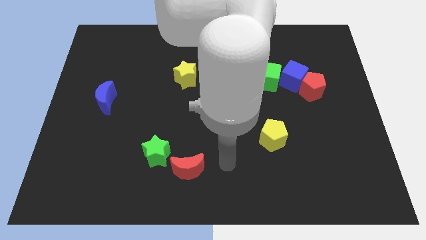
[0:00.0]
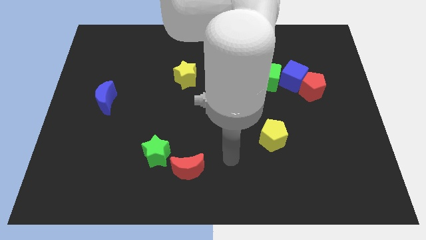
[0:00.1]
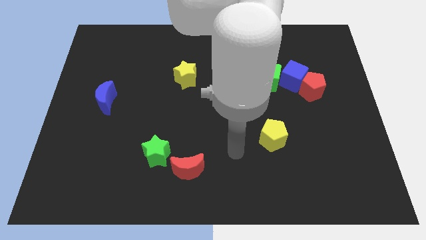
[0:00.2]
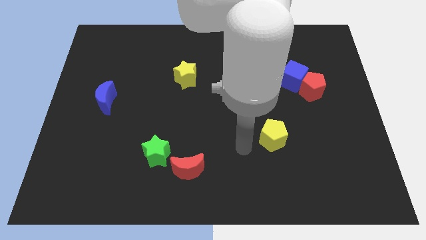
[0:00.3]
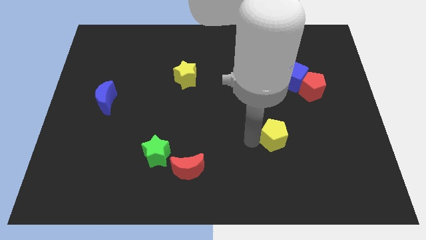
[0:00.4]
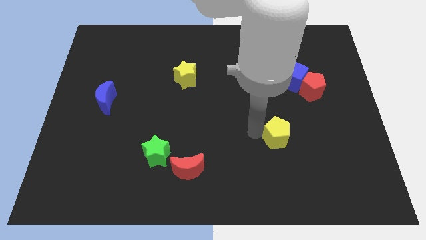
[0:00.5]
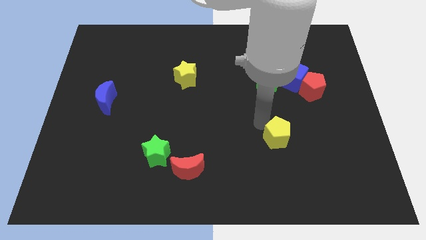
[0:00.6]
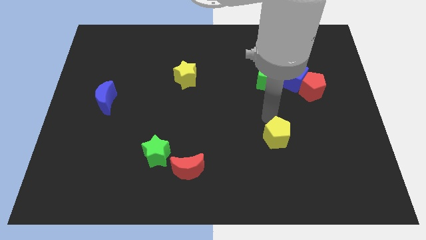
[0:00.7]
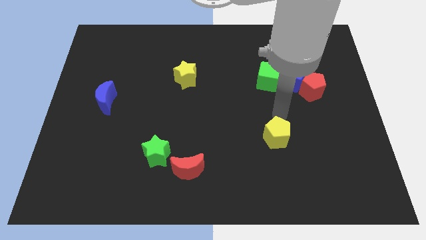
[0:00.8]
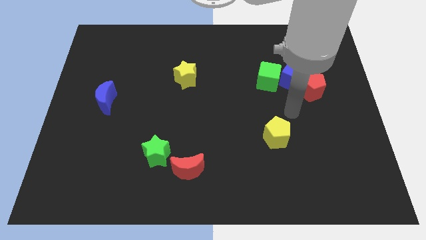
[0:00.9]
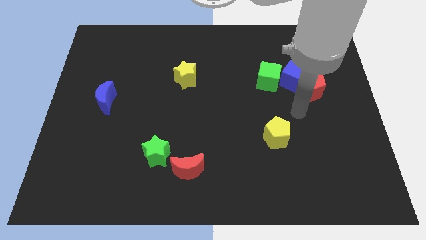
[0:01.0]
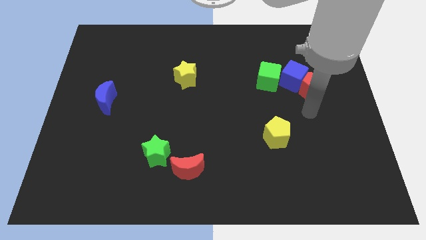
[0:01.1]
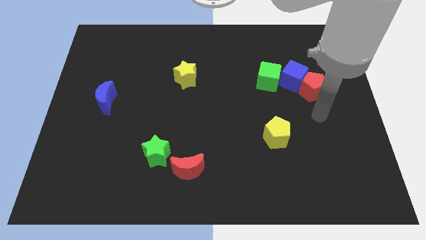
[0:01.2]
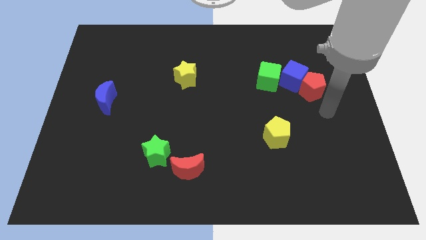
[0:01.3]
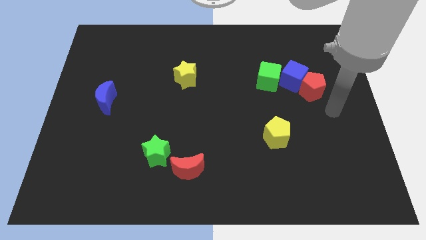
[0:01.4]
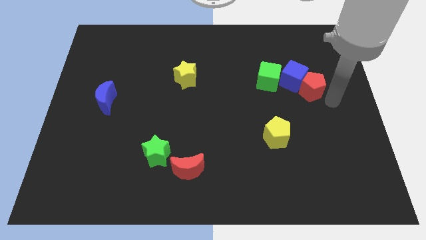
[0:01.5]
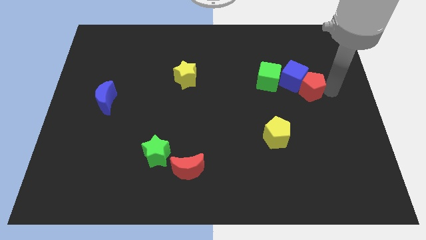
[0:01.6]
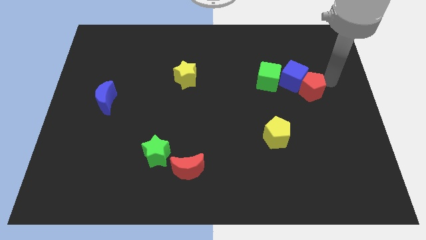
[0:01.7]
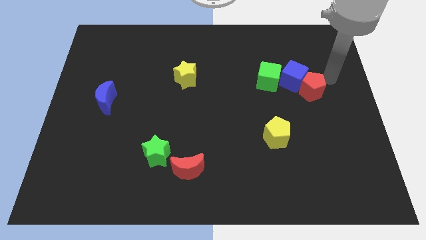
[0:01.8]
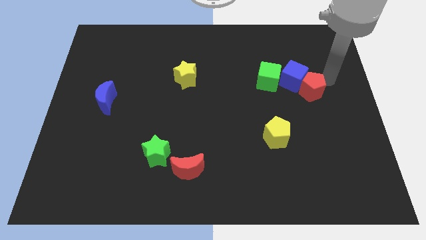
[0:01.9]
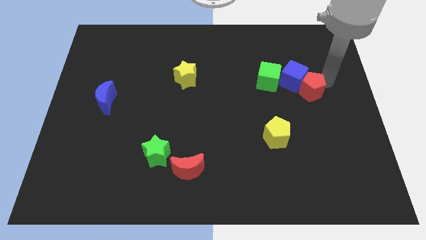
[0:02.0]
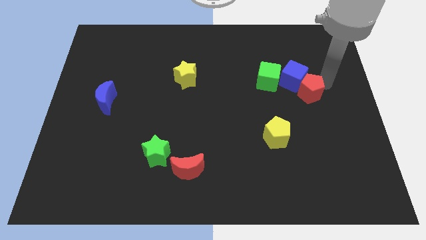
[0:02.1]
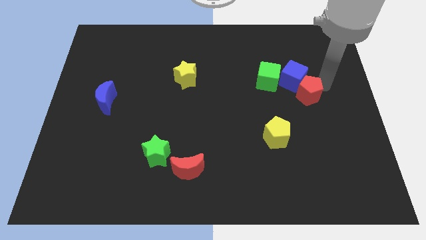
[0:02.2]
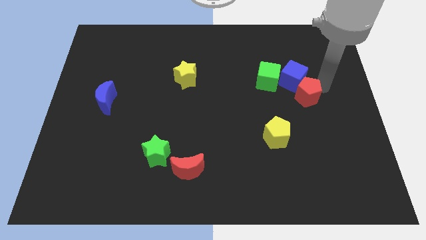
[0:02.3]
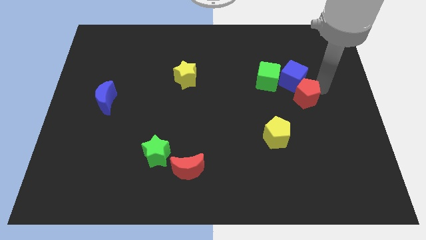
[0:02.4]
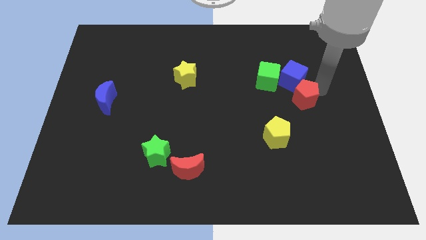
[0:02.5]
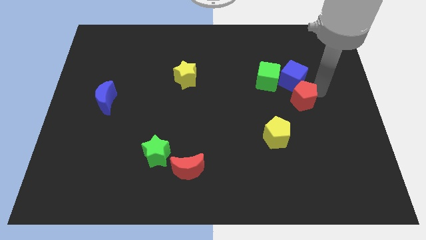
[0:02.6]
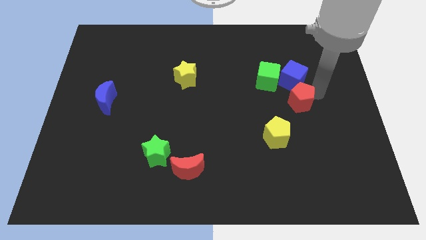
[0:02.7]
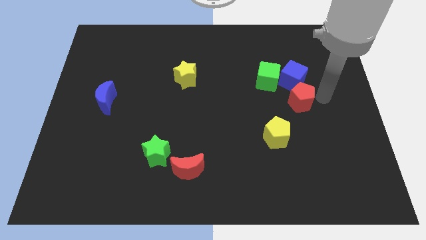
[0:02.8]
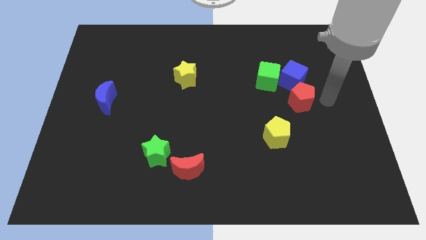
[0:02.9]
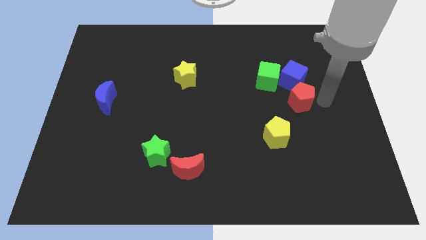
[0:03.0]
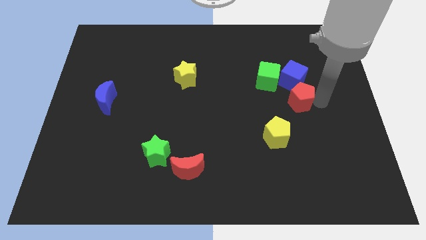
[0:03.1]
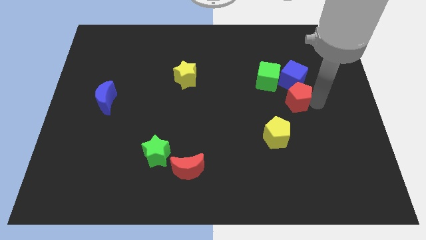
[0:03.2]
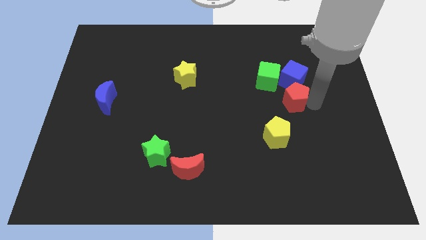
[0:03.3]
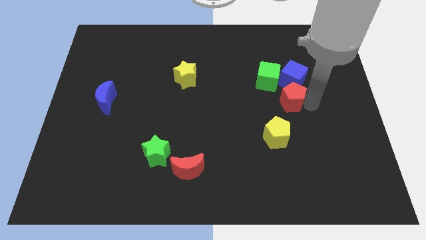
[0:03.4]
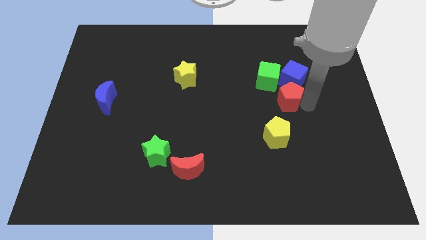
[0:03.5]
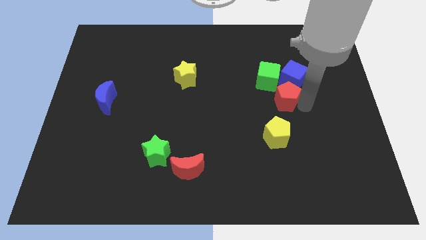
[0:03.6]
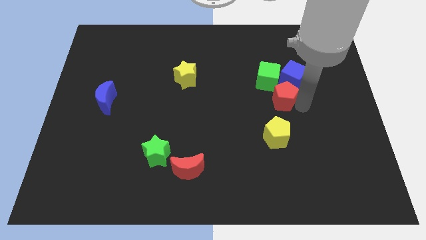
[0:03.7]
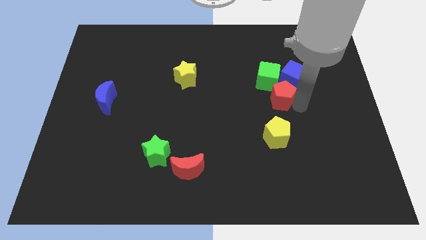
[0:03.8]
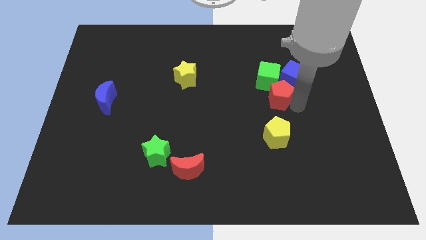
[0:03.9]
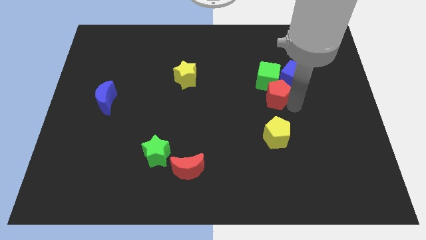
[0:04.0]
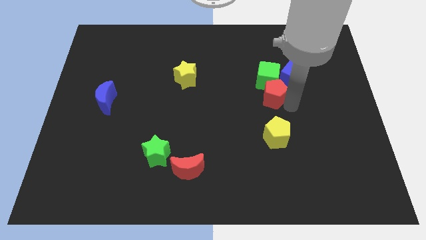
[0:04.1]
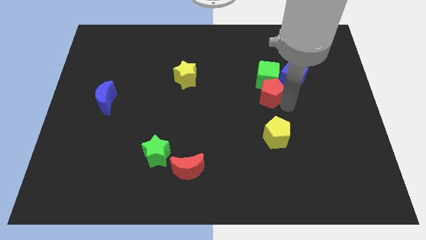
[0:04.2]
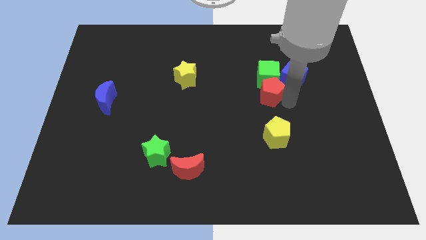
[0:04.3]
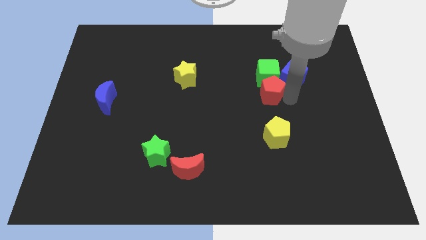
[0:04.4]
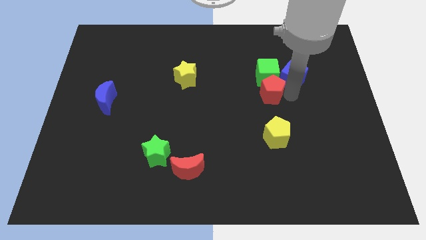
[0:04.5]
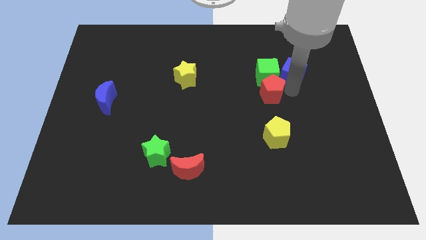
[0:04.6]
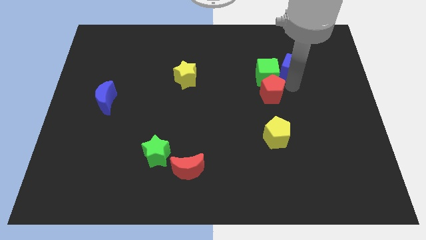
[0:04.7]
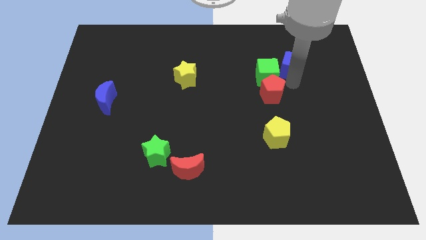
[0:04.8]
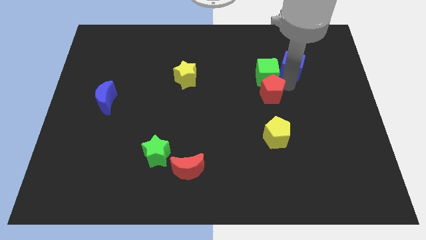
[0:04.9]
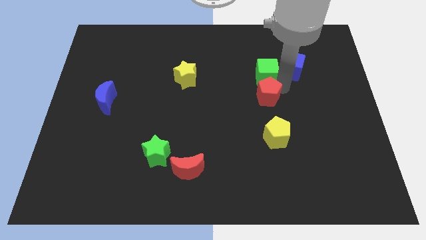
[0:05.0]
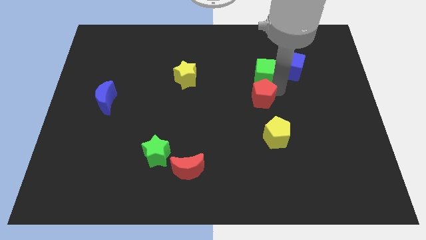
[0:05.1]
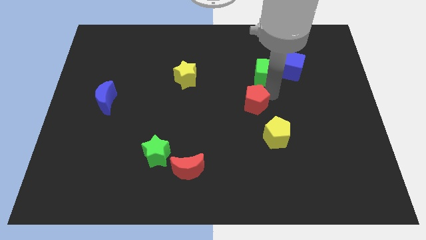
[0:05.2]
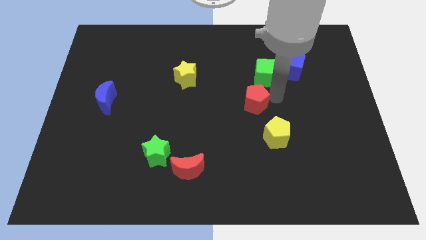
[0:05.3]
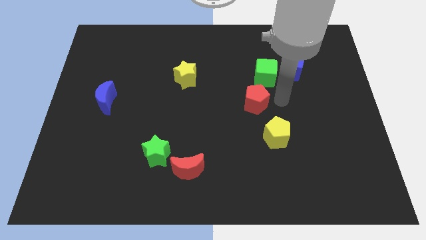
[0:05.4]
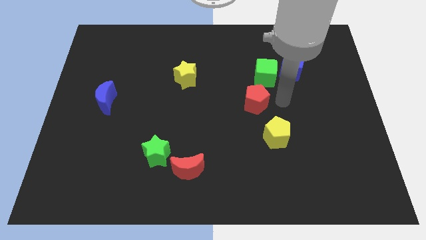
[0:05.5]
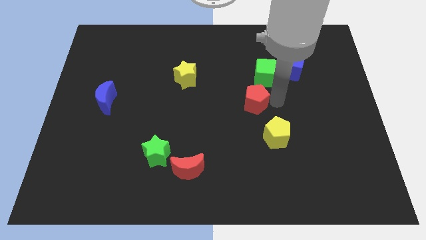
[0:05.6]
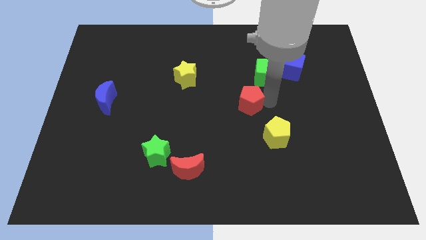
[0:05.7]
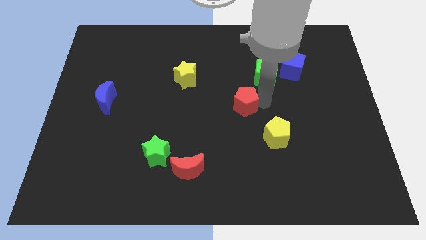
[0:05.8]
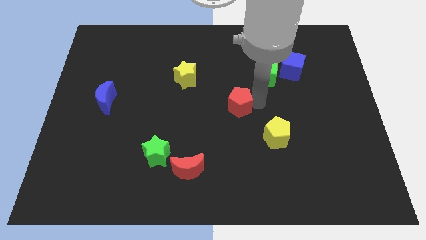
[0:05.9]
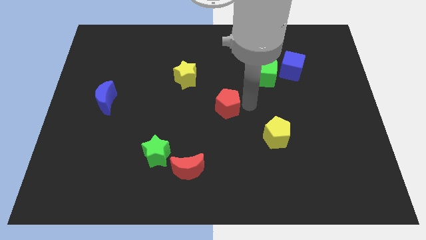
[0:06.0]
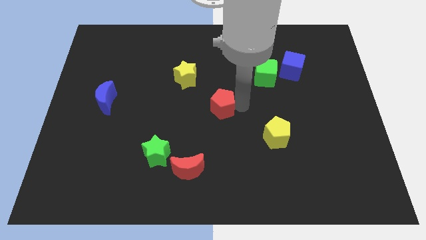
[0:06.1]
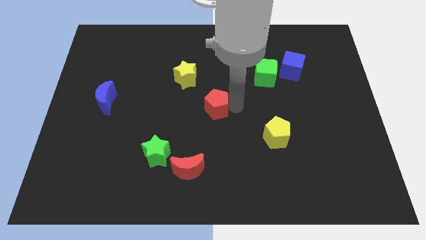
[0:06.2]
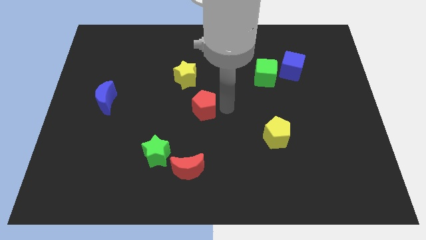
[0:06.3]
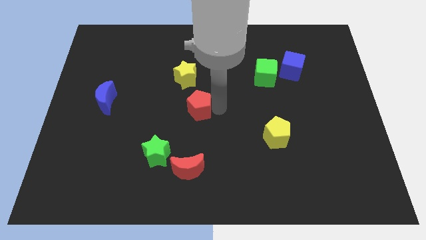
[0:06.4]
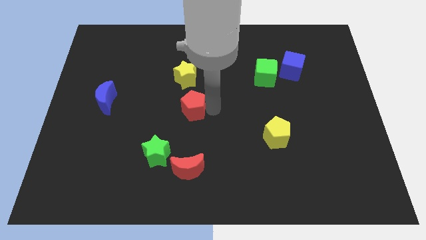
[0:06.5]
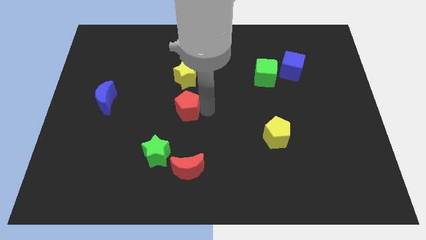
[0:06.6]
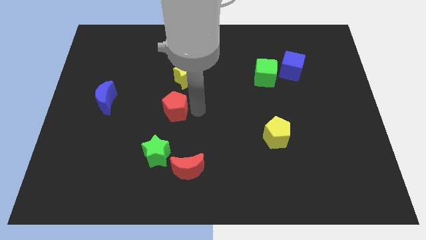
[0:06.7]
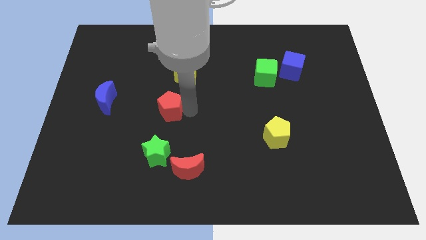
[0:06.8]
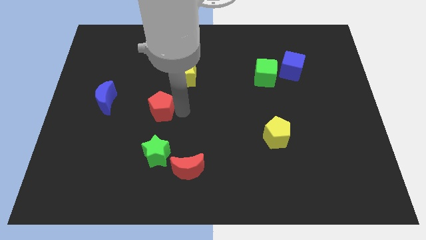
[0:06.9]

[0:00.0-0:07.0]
put the red pentagon to the right of the blue moon
